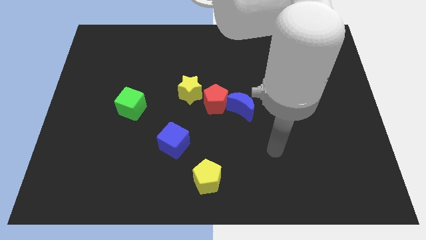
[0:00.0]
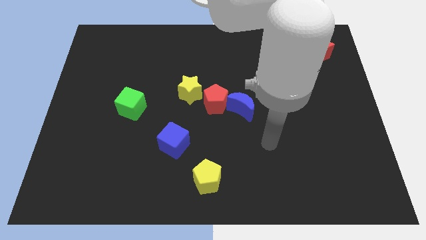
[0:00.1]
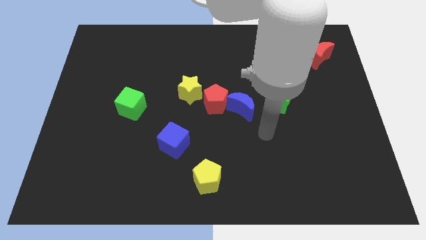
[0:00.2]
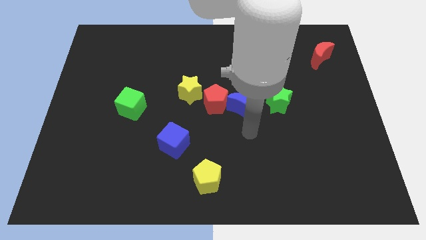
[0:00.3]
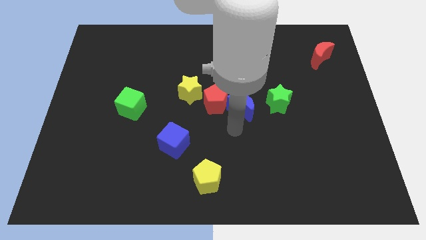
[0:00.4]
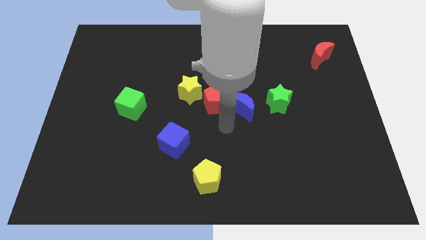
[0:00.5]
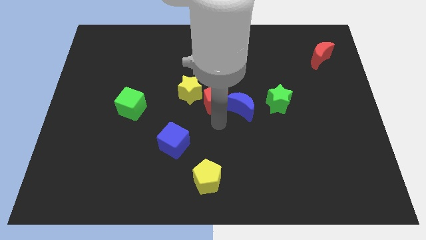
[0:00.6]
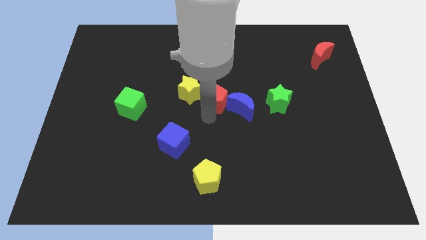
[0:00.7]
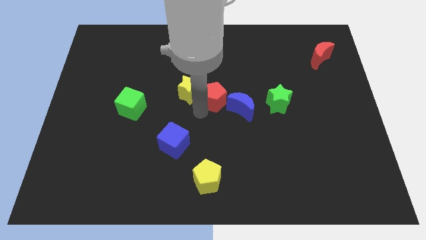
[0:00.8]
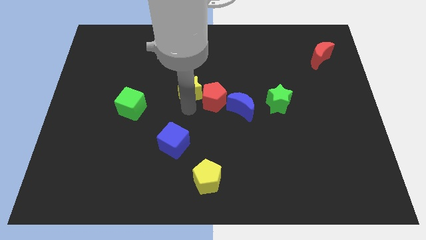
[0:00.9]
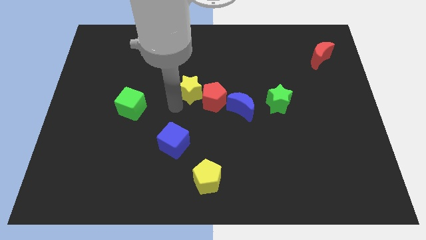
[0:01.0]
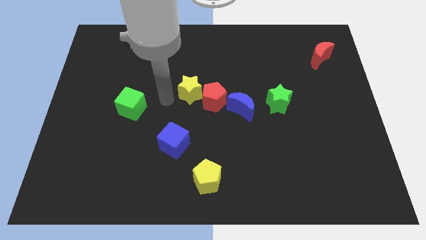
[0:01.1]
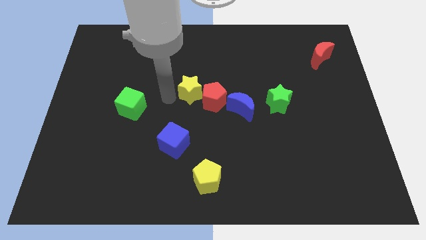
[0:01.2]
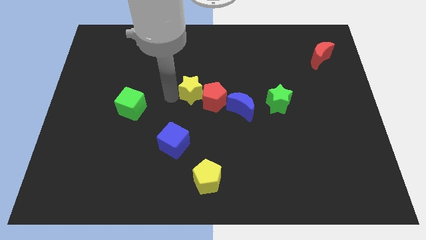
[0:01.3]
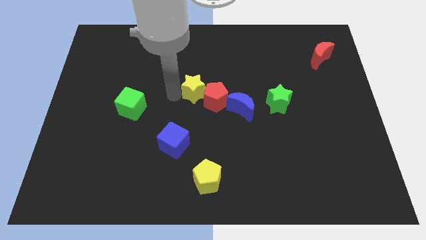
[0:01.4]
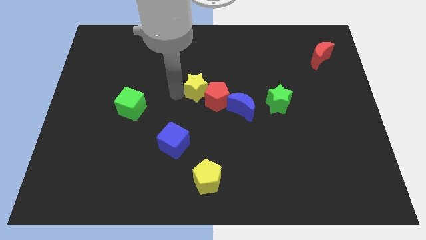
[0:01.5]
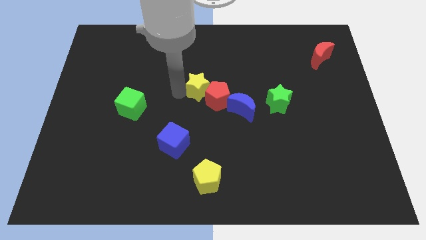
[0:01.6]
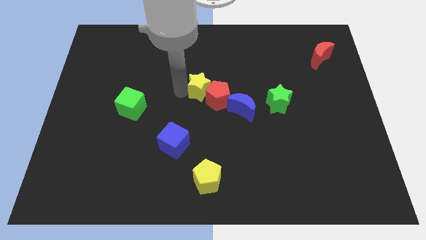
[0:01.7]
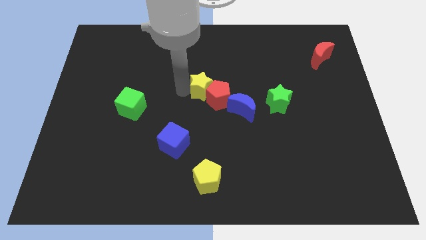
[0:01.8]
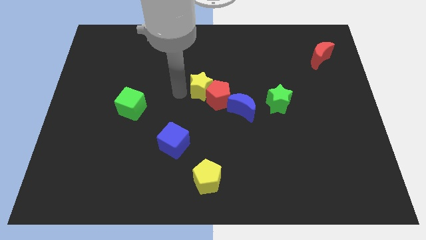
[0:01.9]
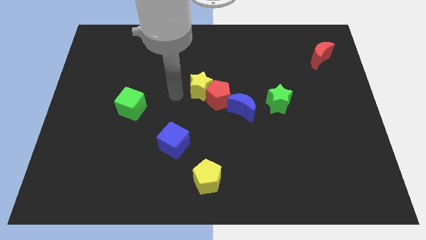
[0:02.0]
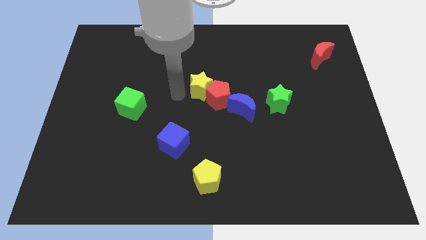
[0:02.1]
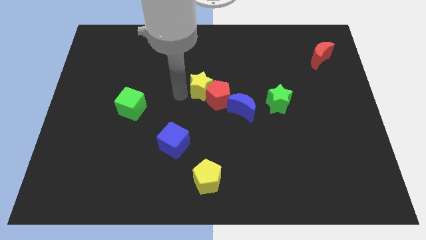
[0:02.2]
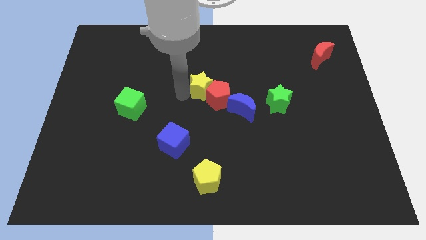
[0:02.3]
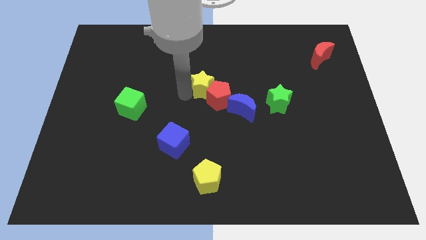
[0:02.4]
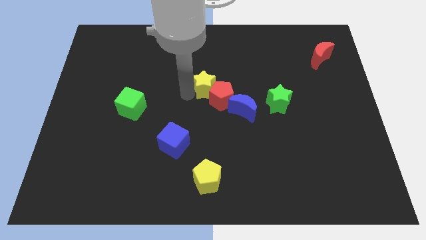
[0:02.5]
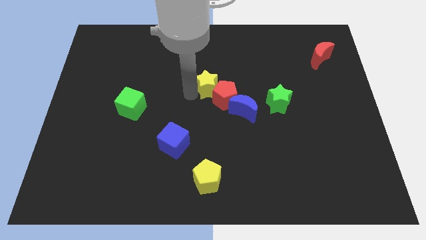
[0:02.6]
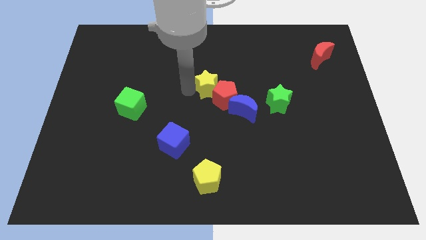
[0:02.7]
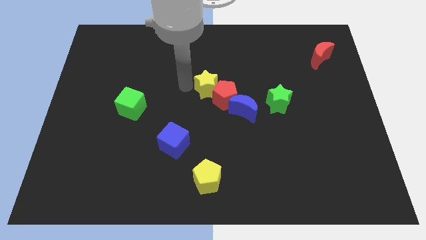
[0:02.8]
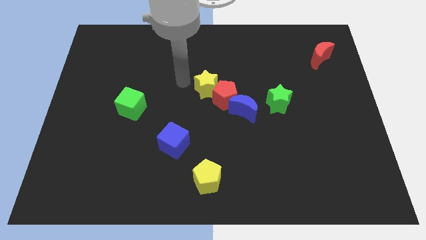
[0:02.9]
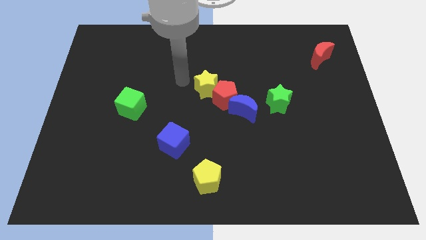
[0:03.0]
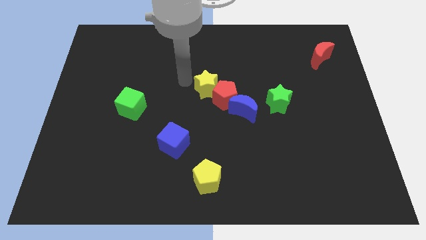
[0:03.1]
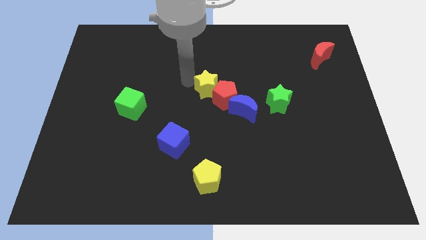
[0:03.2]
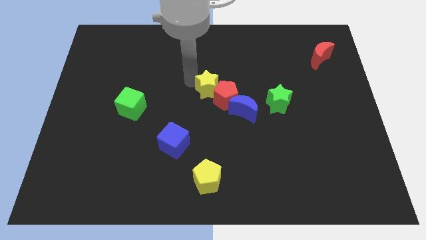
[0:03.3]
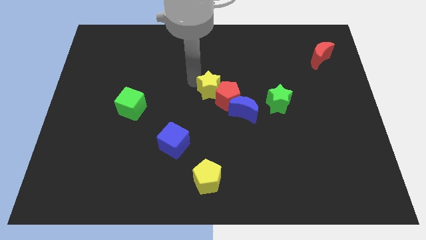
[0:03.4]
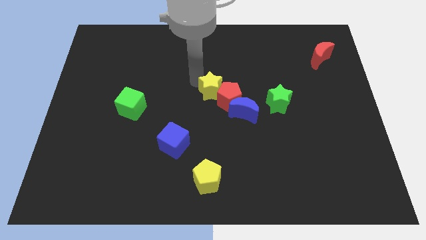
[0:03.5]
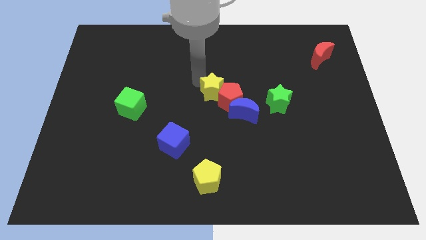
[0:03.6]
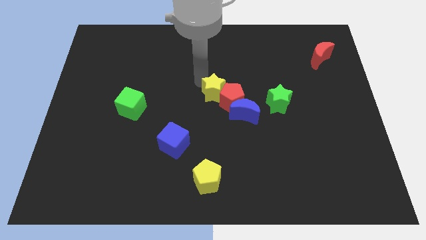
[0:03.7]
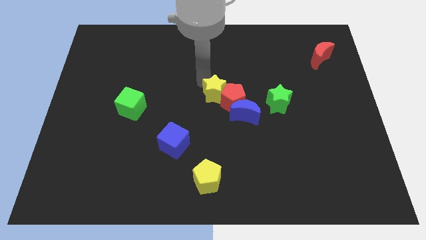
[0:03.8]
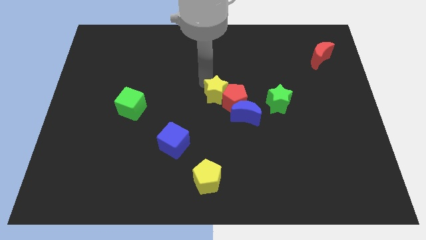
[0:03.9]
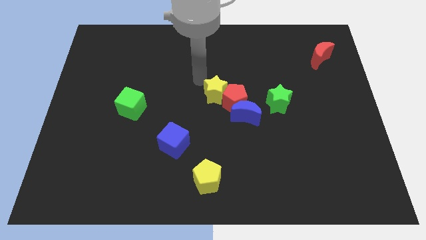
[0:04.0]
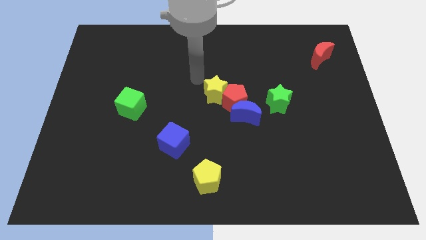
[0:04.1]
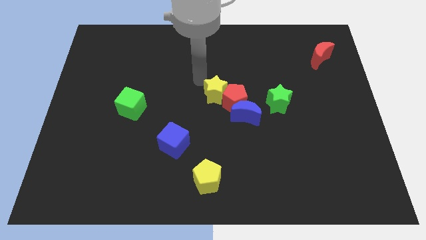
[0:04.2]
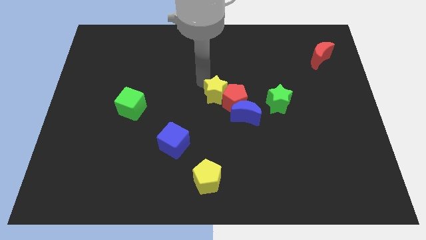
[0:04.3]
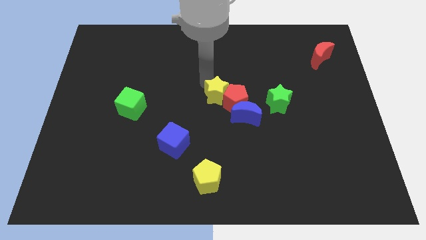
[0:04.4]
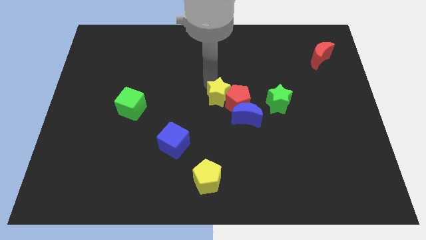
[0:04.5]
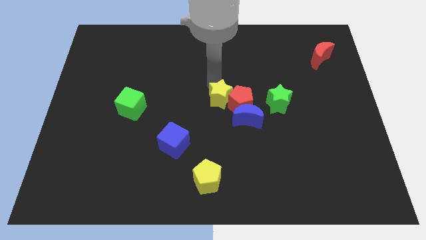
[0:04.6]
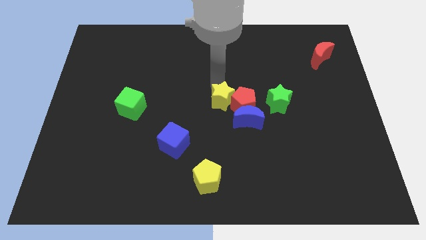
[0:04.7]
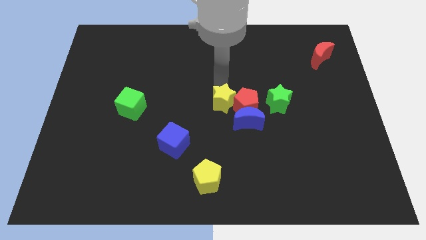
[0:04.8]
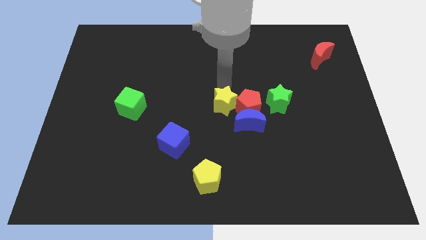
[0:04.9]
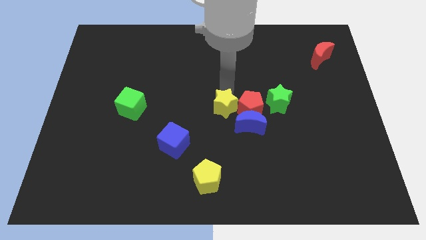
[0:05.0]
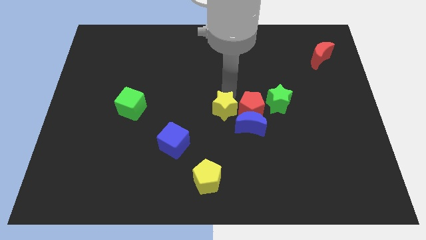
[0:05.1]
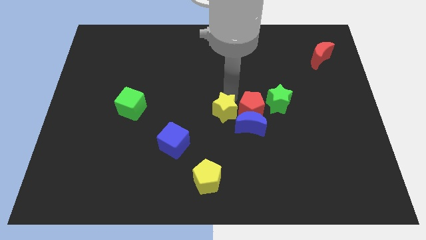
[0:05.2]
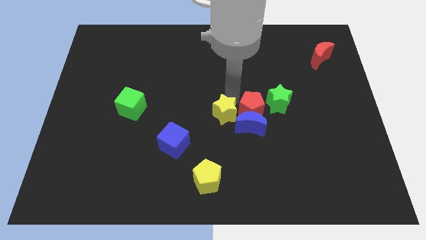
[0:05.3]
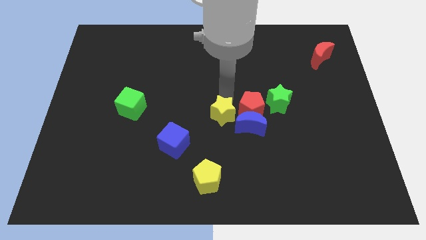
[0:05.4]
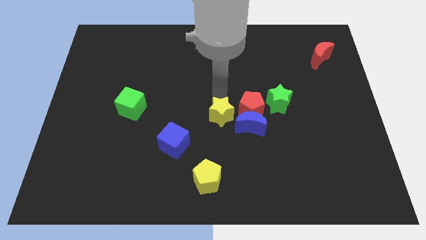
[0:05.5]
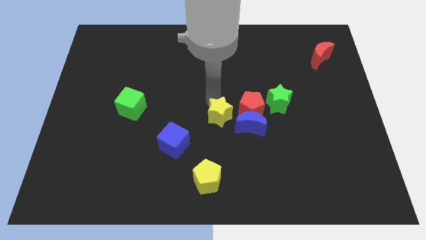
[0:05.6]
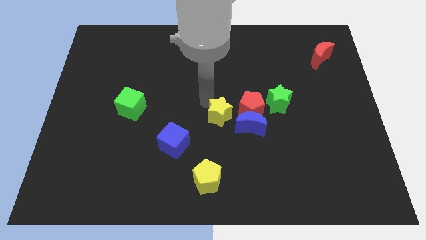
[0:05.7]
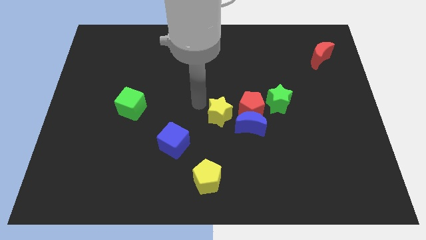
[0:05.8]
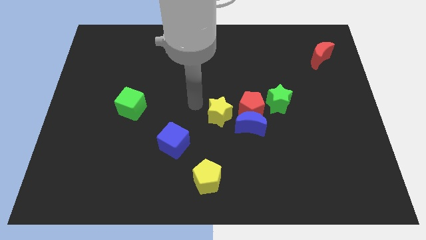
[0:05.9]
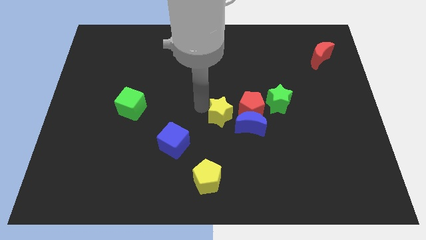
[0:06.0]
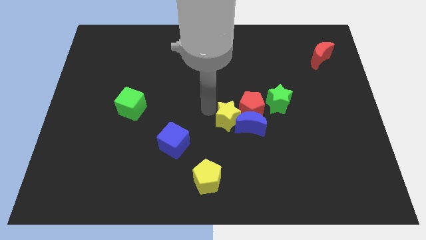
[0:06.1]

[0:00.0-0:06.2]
push the yellow star towards the blue moon

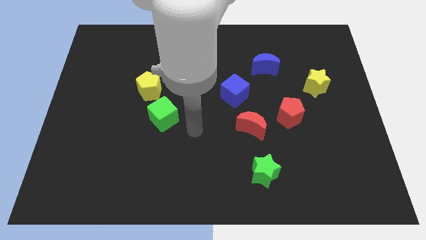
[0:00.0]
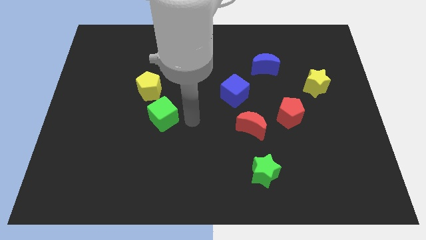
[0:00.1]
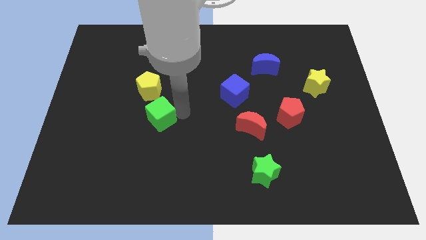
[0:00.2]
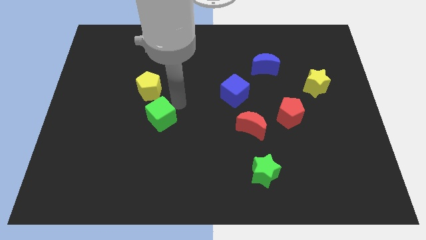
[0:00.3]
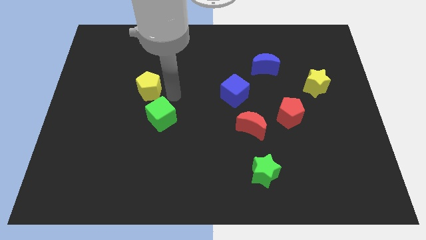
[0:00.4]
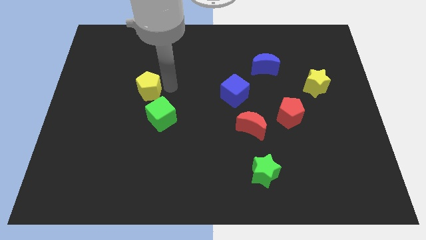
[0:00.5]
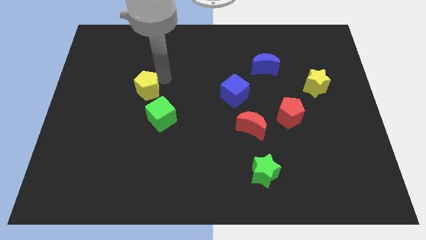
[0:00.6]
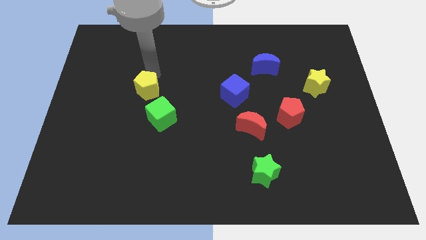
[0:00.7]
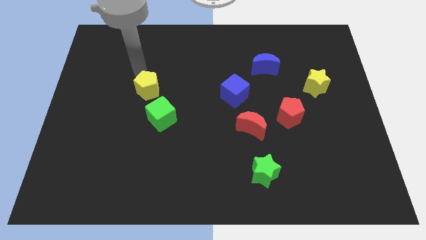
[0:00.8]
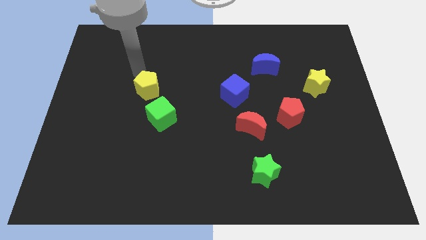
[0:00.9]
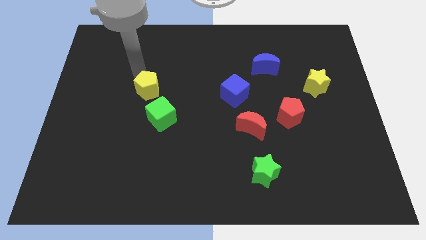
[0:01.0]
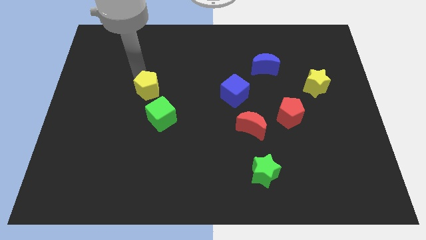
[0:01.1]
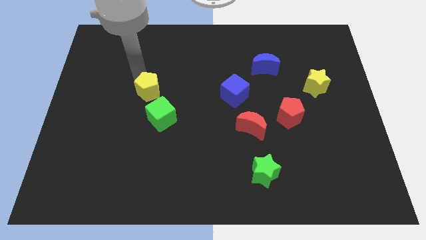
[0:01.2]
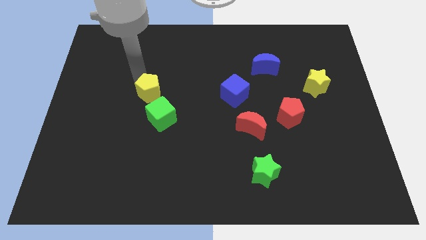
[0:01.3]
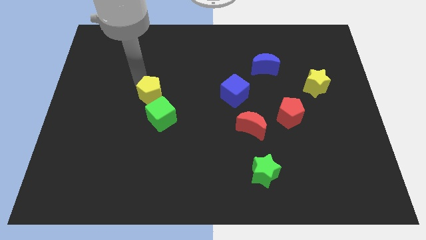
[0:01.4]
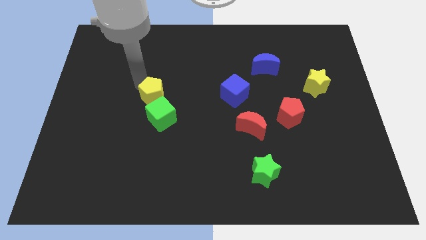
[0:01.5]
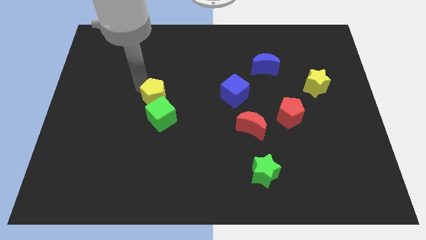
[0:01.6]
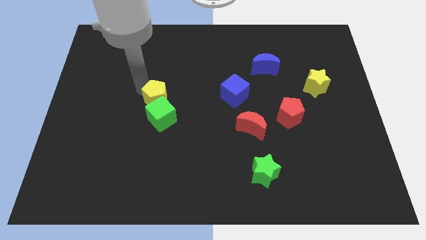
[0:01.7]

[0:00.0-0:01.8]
push the yellow pentagon close to the green cube
